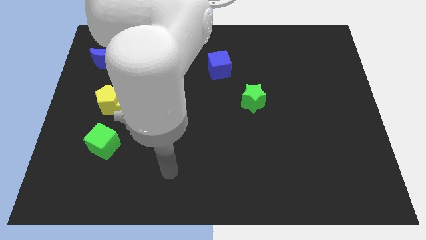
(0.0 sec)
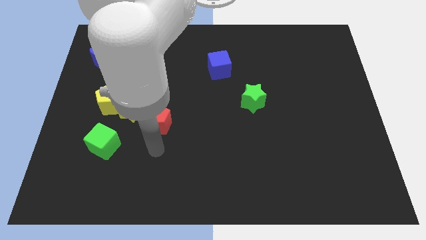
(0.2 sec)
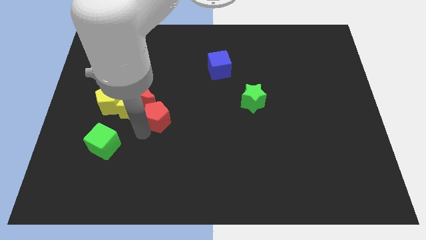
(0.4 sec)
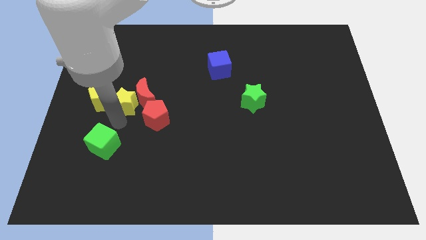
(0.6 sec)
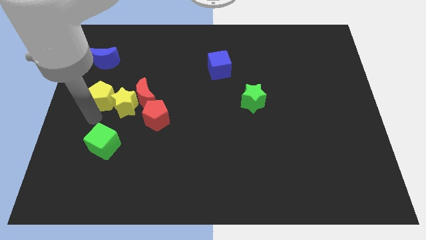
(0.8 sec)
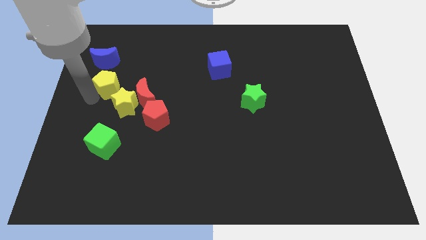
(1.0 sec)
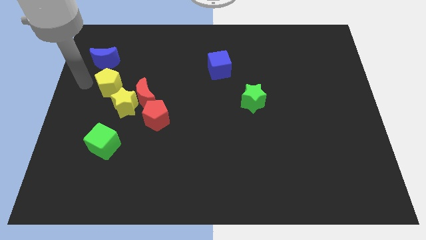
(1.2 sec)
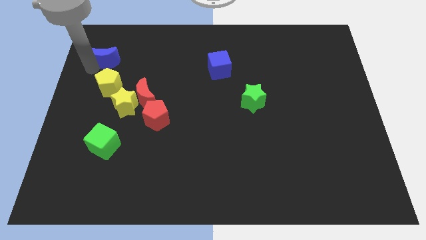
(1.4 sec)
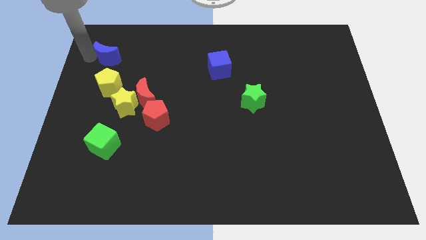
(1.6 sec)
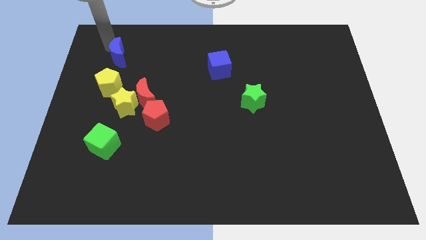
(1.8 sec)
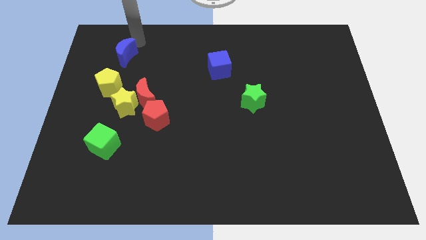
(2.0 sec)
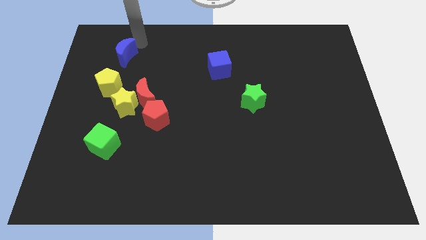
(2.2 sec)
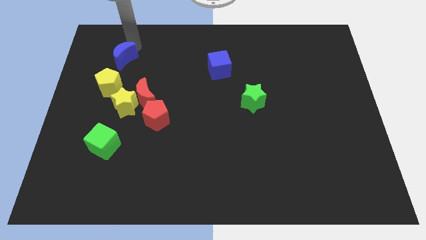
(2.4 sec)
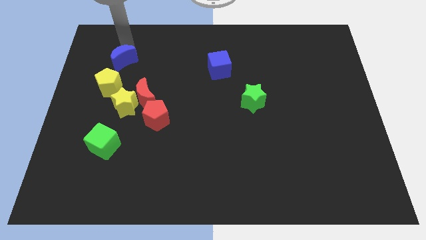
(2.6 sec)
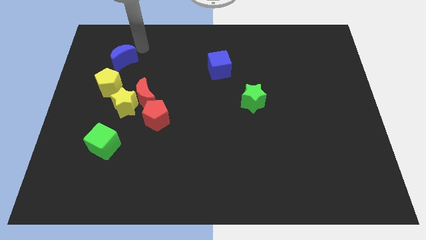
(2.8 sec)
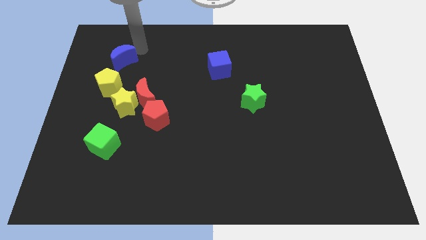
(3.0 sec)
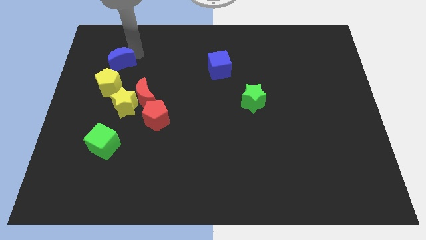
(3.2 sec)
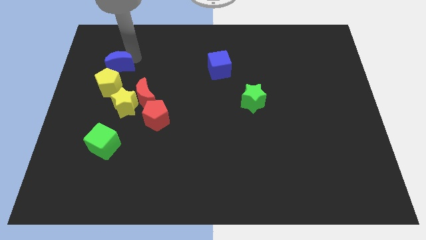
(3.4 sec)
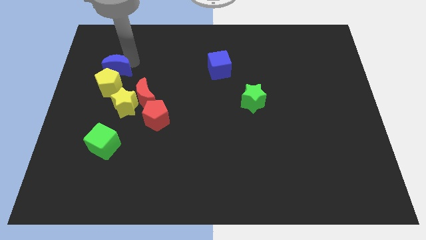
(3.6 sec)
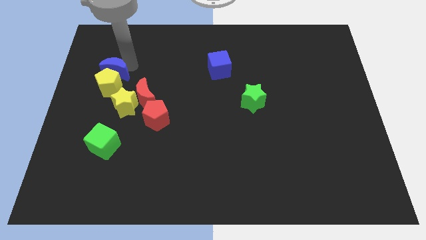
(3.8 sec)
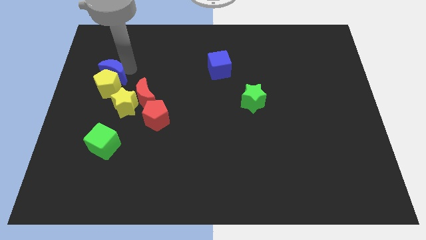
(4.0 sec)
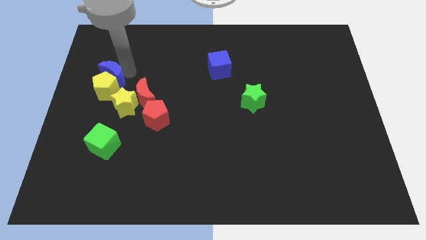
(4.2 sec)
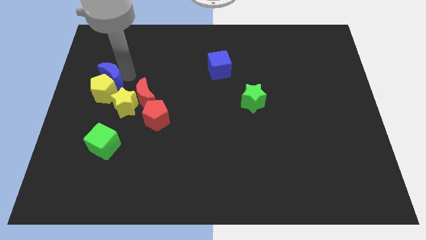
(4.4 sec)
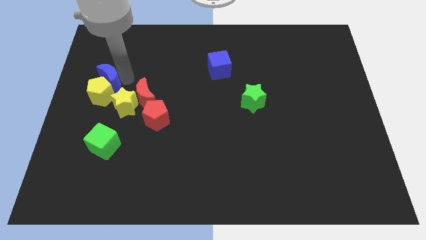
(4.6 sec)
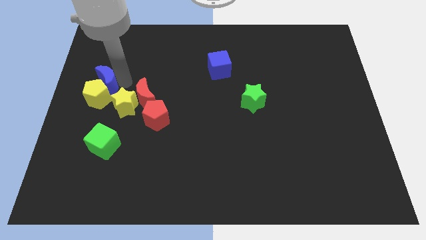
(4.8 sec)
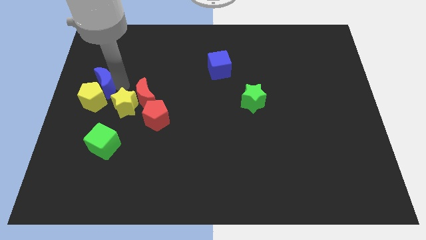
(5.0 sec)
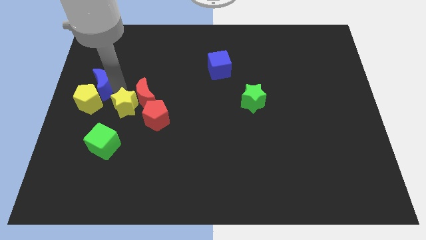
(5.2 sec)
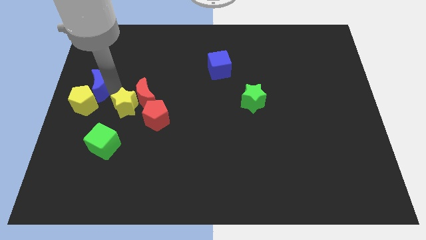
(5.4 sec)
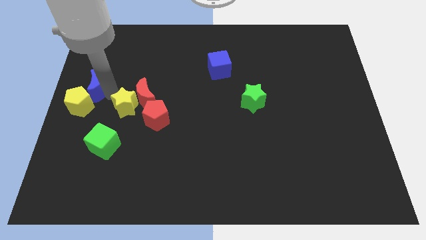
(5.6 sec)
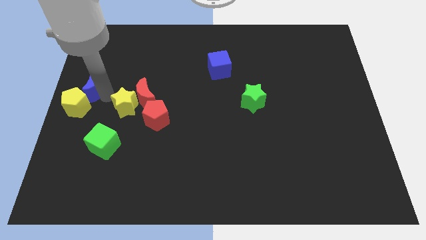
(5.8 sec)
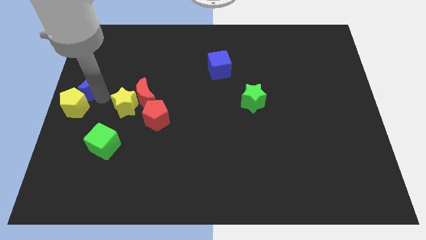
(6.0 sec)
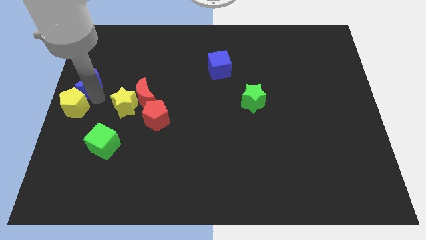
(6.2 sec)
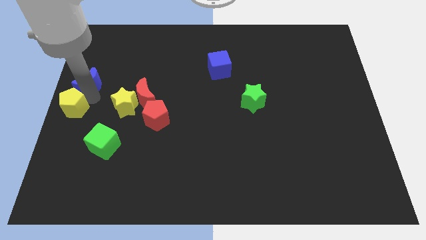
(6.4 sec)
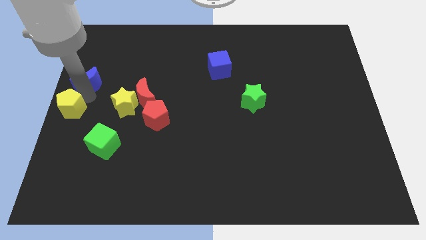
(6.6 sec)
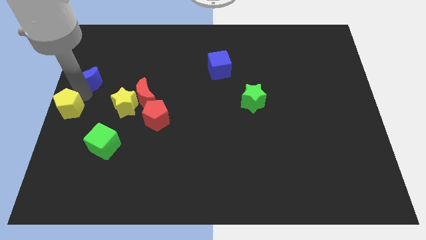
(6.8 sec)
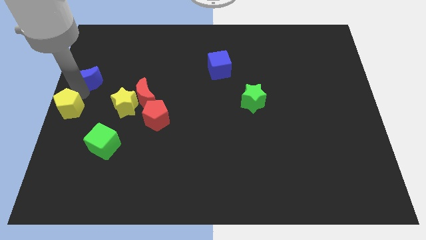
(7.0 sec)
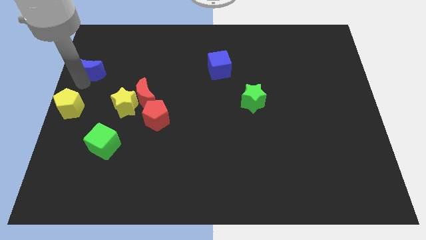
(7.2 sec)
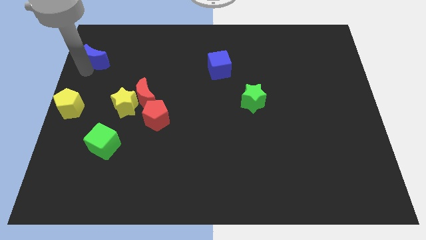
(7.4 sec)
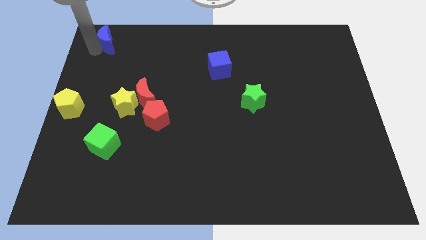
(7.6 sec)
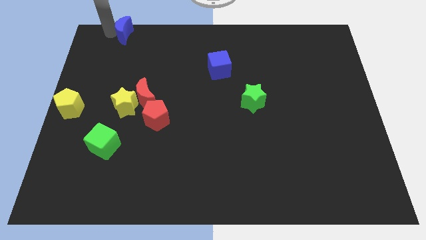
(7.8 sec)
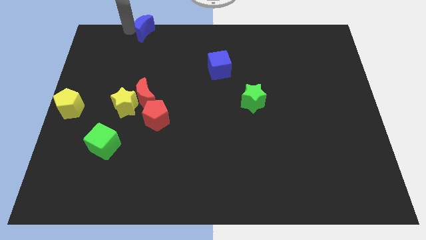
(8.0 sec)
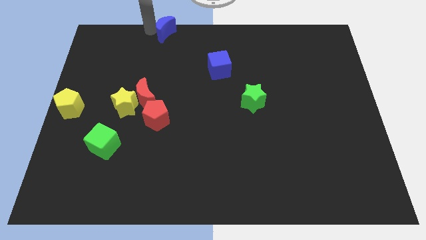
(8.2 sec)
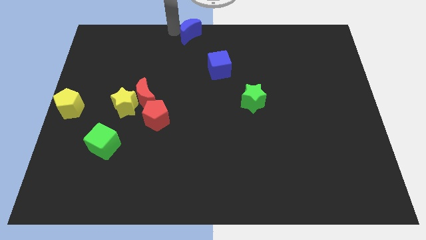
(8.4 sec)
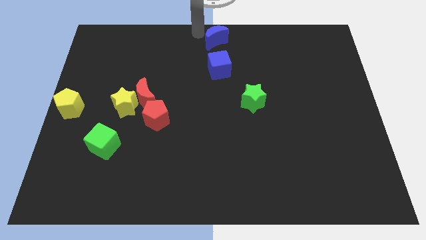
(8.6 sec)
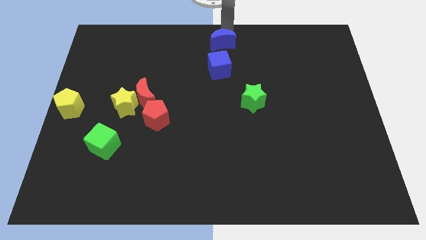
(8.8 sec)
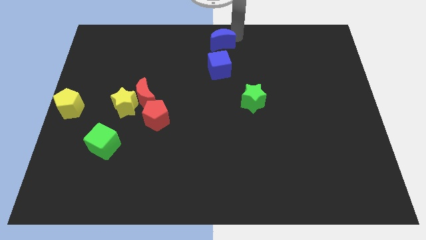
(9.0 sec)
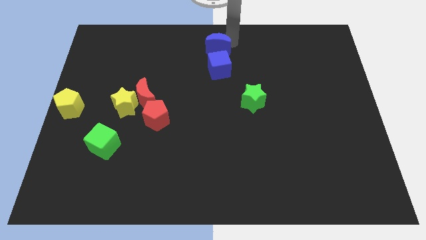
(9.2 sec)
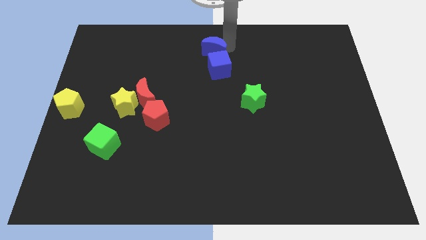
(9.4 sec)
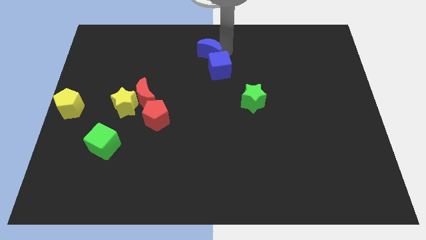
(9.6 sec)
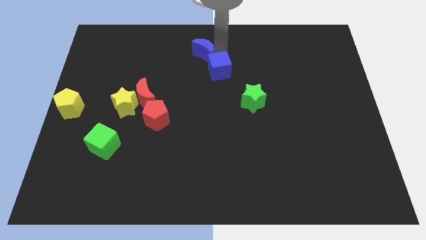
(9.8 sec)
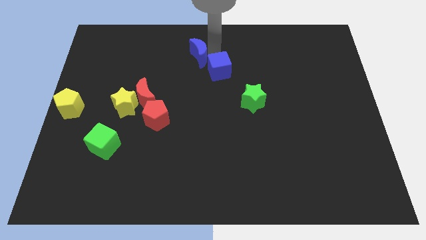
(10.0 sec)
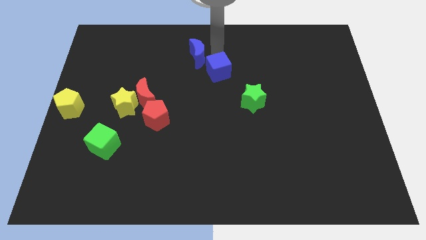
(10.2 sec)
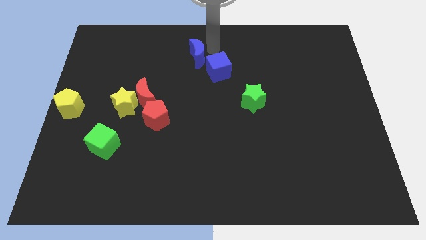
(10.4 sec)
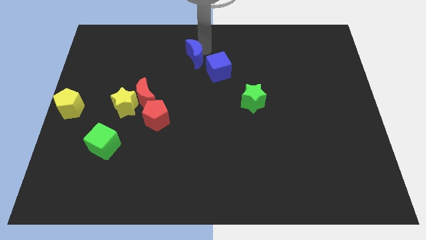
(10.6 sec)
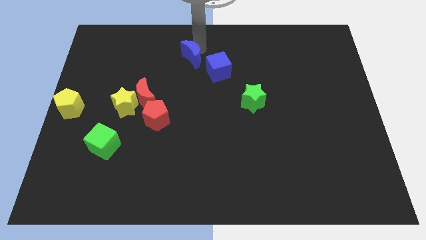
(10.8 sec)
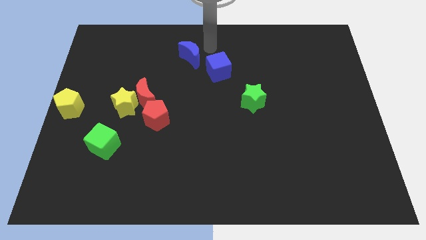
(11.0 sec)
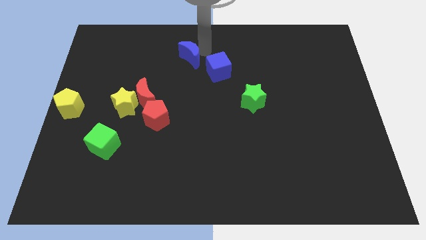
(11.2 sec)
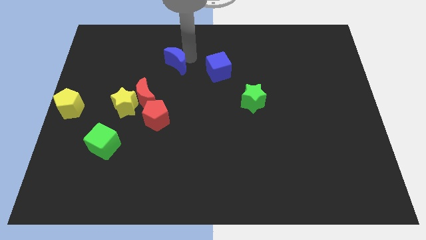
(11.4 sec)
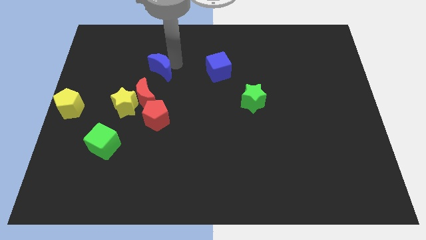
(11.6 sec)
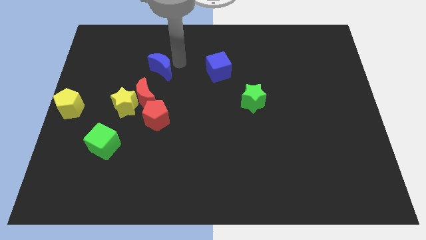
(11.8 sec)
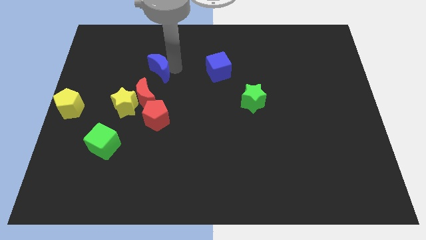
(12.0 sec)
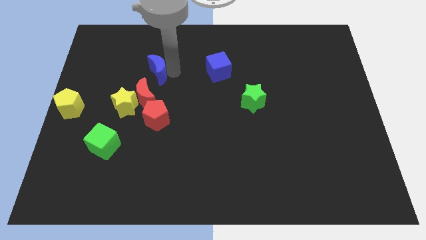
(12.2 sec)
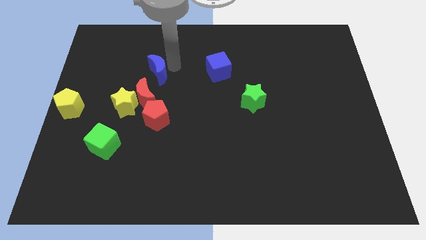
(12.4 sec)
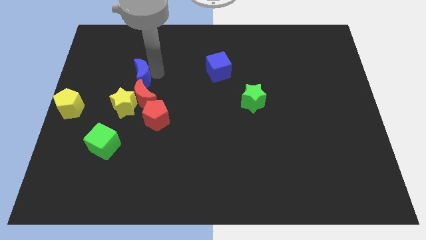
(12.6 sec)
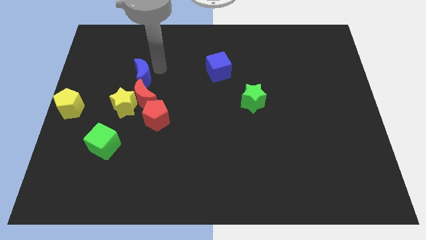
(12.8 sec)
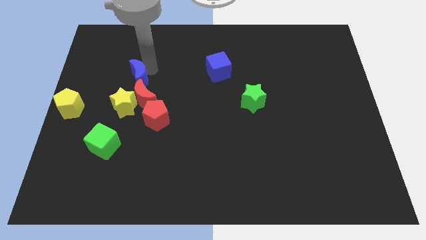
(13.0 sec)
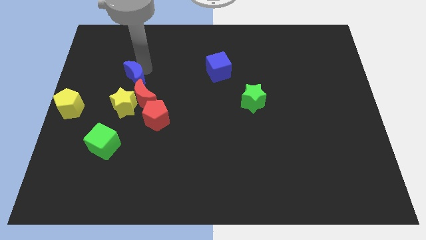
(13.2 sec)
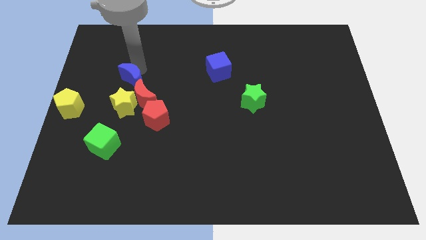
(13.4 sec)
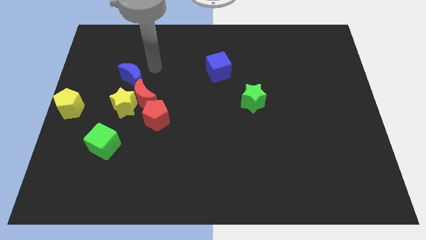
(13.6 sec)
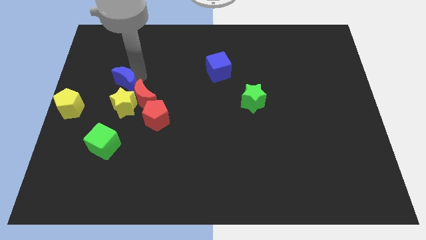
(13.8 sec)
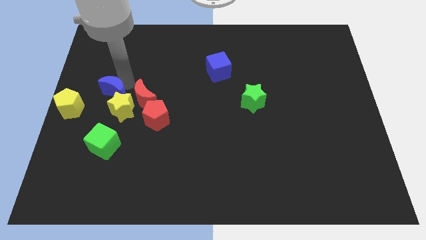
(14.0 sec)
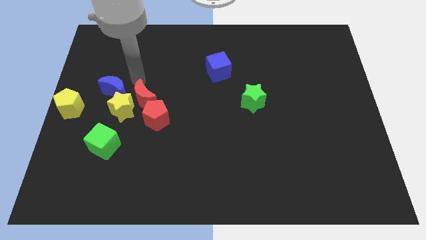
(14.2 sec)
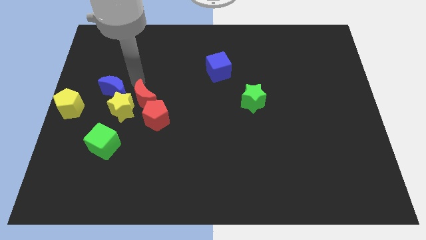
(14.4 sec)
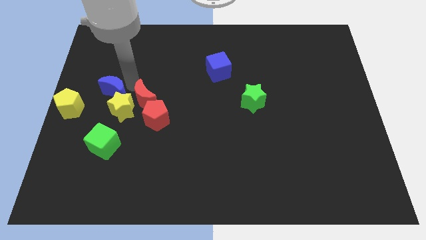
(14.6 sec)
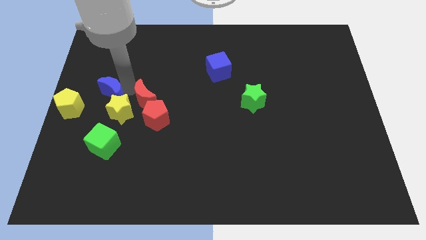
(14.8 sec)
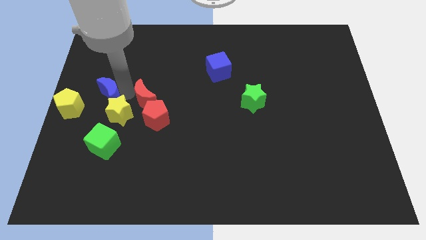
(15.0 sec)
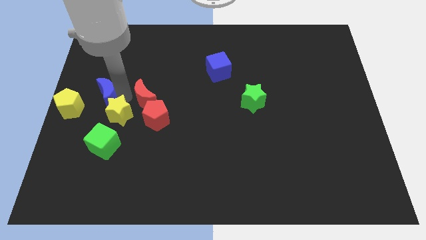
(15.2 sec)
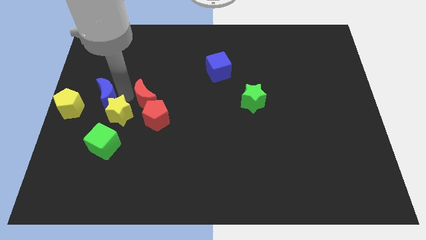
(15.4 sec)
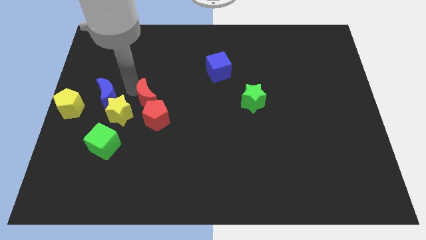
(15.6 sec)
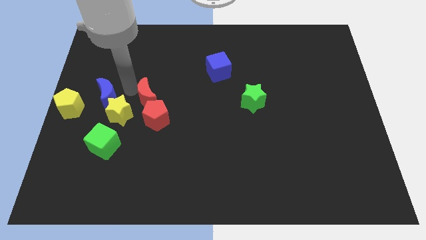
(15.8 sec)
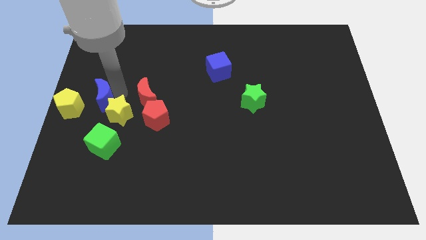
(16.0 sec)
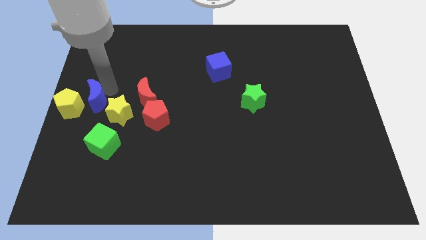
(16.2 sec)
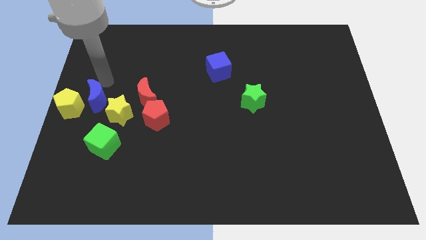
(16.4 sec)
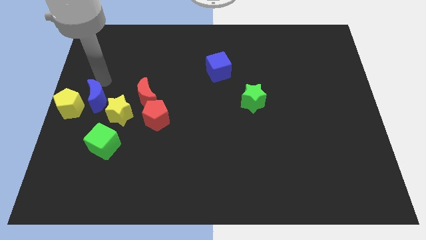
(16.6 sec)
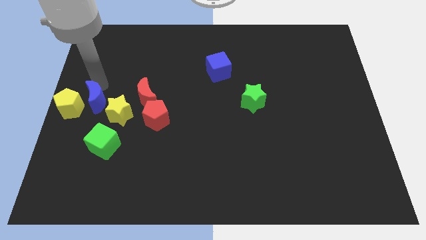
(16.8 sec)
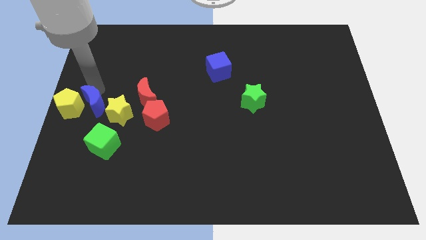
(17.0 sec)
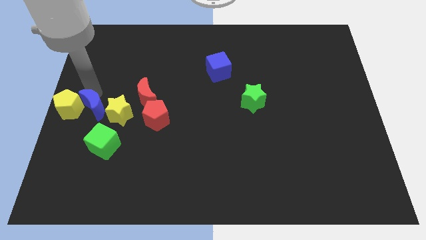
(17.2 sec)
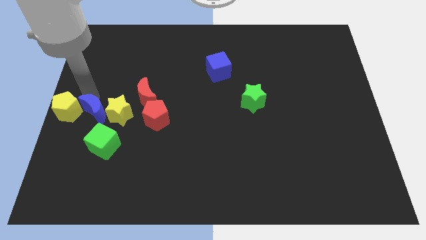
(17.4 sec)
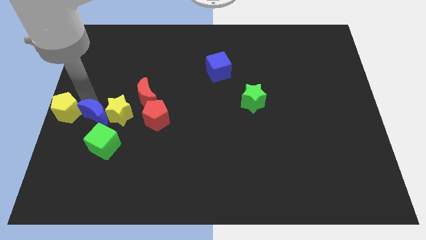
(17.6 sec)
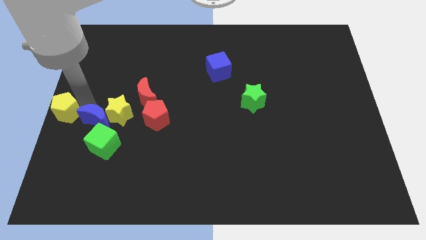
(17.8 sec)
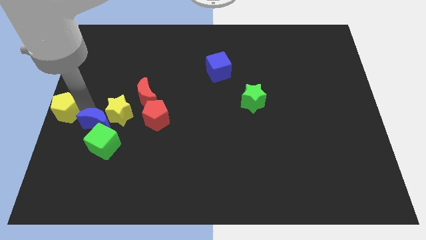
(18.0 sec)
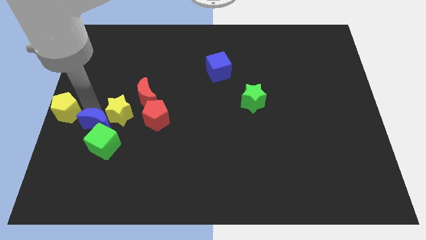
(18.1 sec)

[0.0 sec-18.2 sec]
slide the blue moon down
